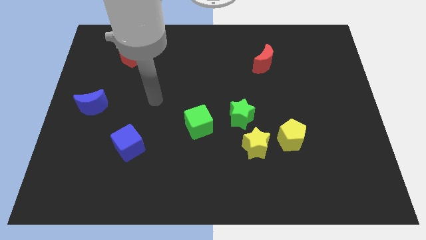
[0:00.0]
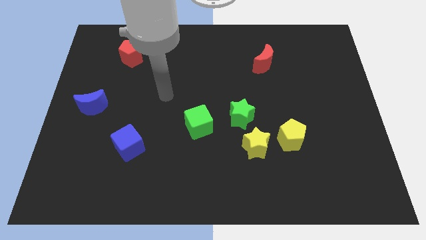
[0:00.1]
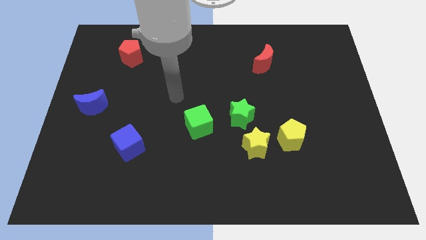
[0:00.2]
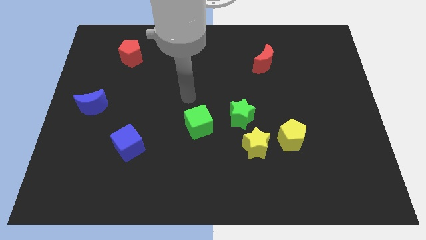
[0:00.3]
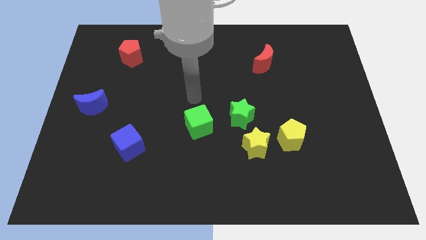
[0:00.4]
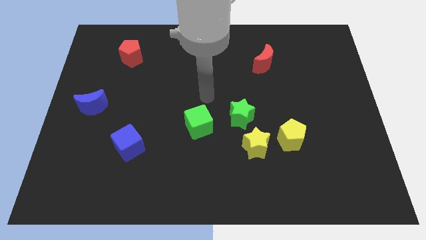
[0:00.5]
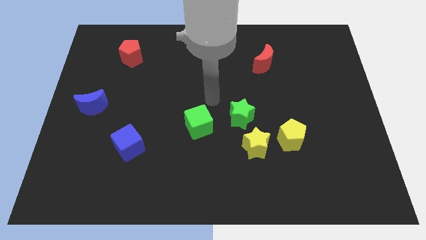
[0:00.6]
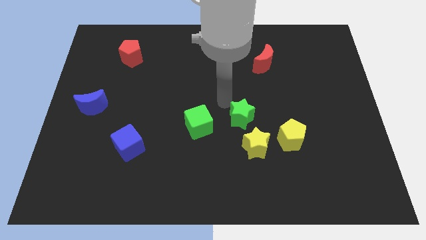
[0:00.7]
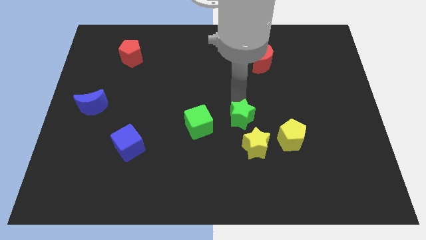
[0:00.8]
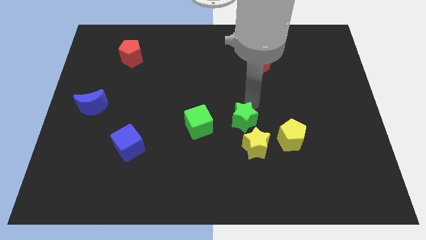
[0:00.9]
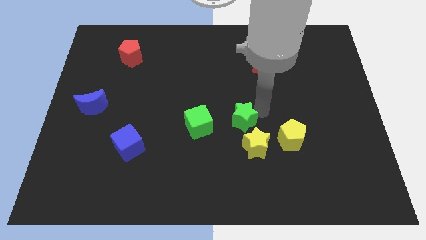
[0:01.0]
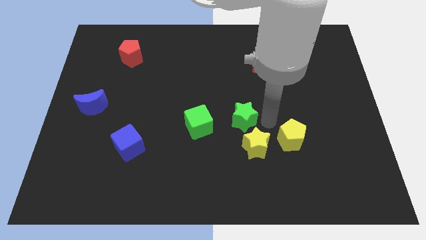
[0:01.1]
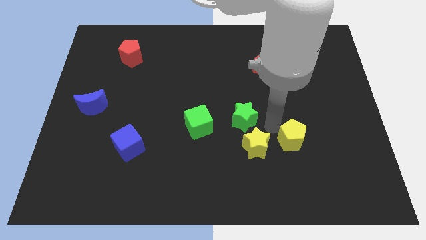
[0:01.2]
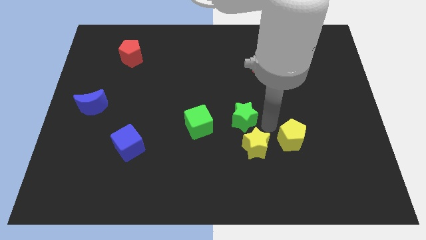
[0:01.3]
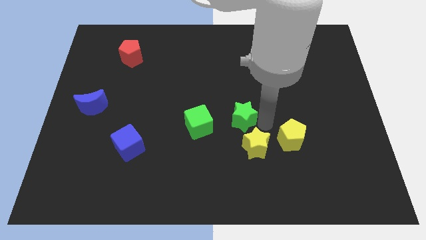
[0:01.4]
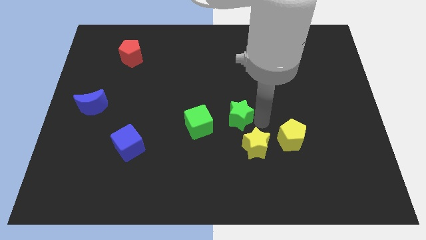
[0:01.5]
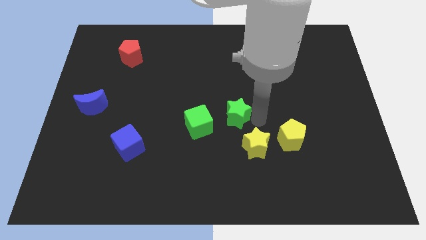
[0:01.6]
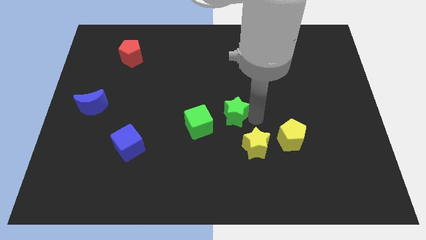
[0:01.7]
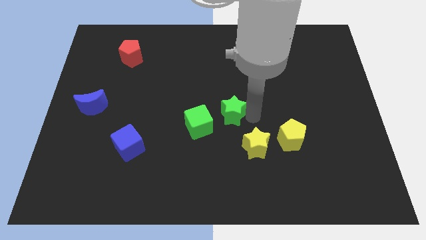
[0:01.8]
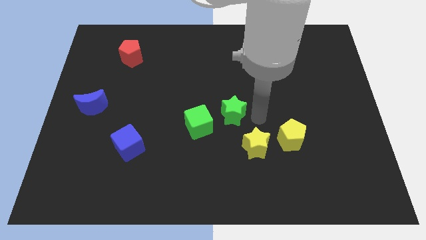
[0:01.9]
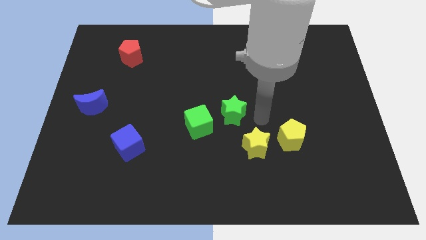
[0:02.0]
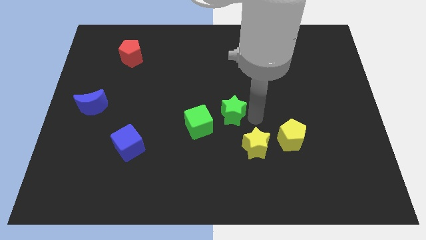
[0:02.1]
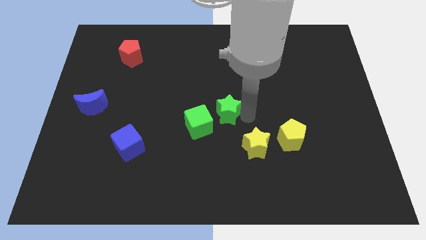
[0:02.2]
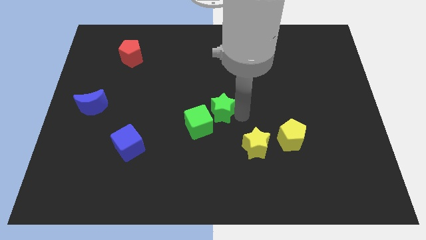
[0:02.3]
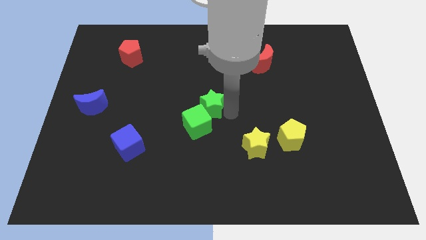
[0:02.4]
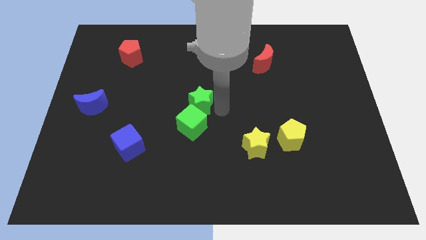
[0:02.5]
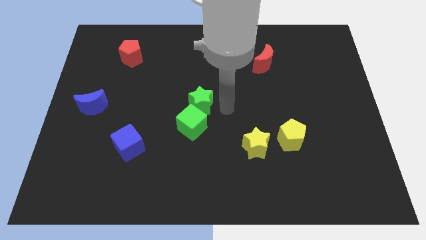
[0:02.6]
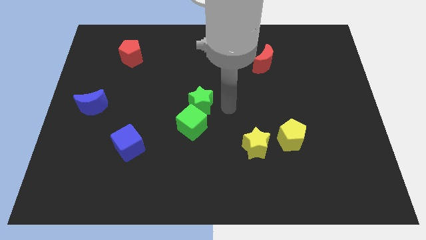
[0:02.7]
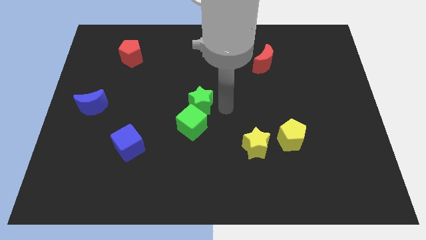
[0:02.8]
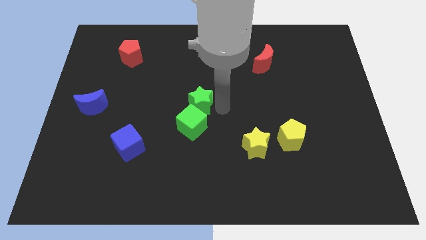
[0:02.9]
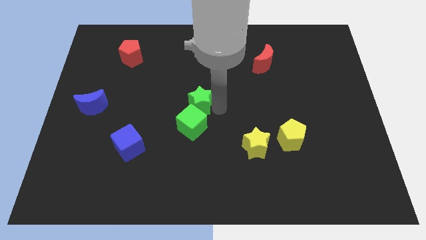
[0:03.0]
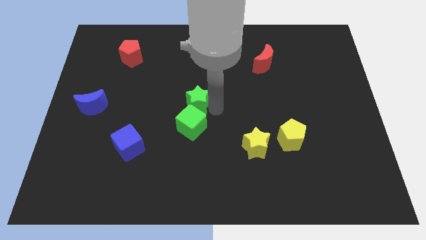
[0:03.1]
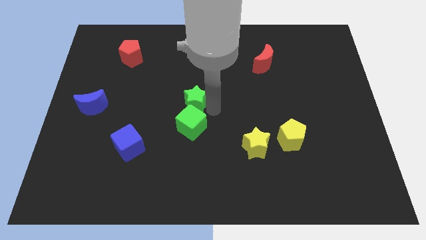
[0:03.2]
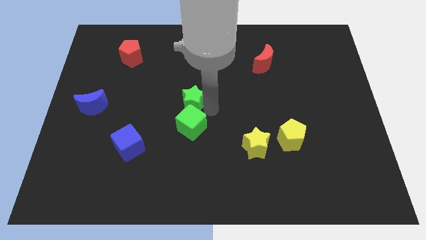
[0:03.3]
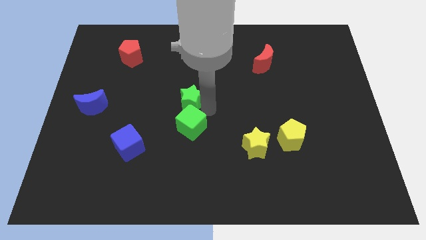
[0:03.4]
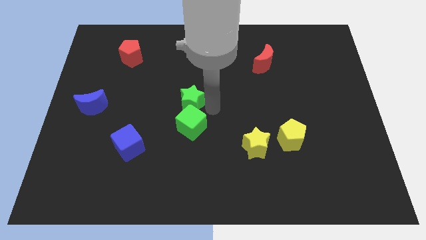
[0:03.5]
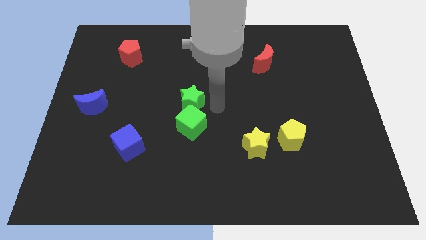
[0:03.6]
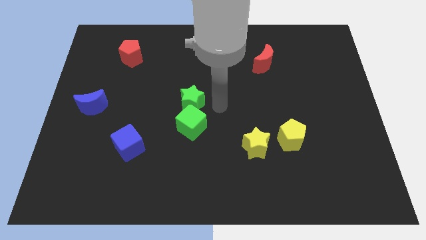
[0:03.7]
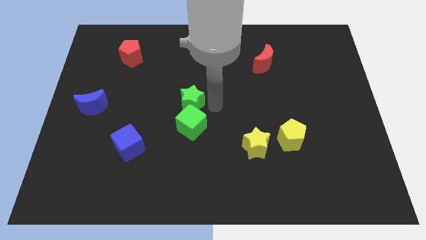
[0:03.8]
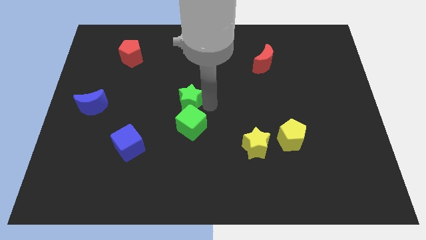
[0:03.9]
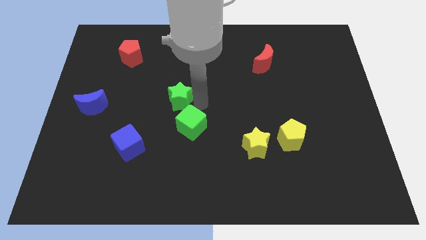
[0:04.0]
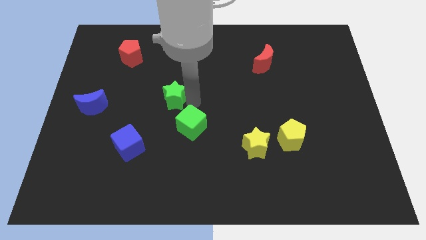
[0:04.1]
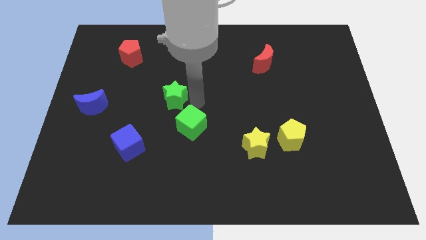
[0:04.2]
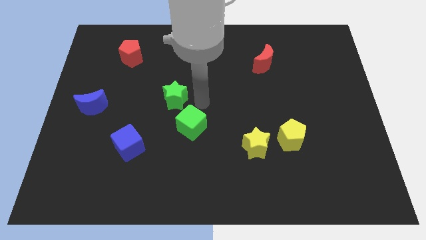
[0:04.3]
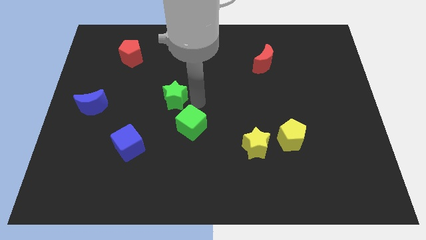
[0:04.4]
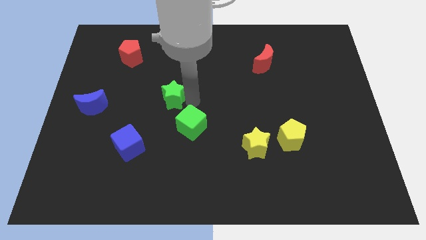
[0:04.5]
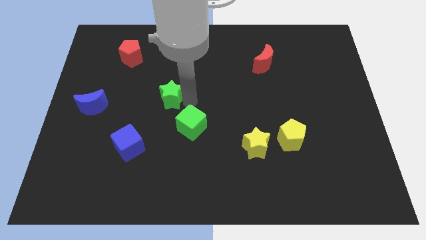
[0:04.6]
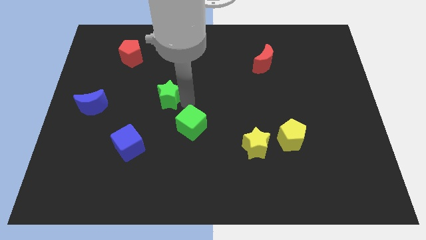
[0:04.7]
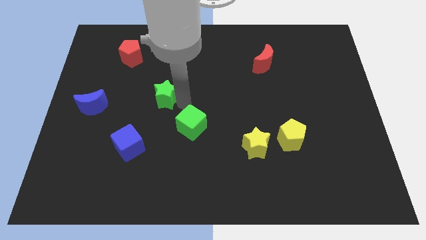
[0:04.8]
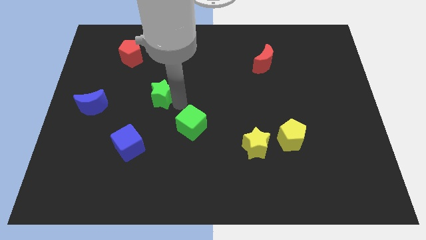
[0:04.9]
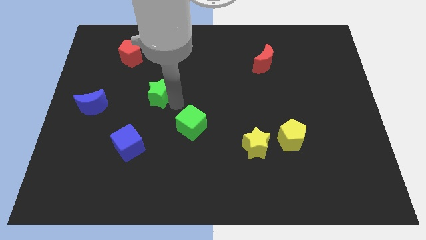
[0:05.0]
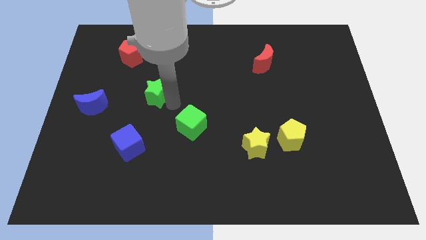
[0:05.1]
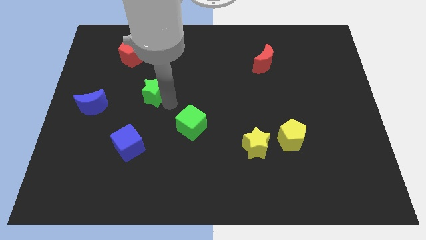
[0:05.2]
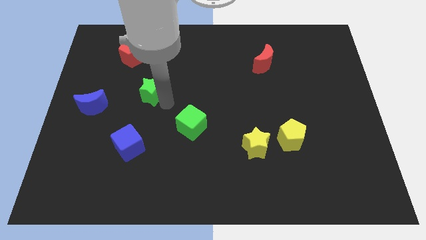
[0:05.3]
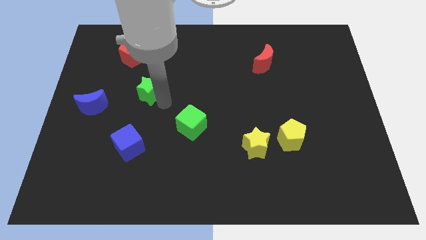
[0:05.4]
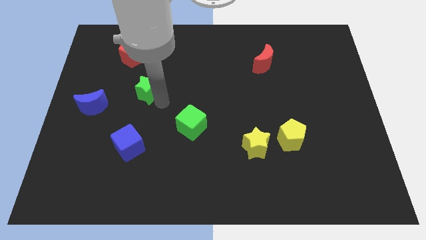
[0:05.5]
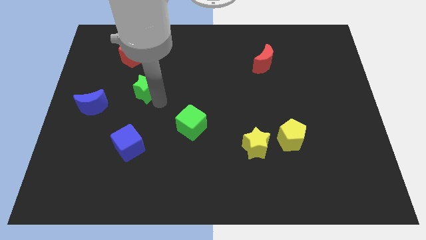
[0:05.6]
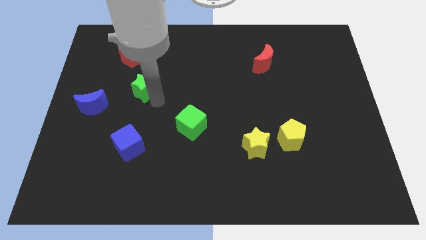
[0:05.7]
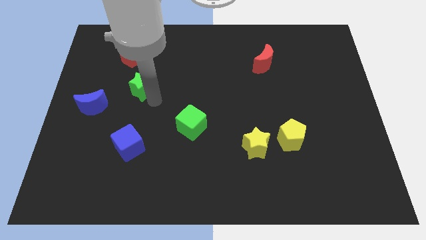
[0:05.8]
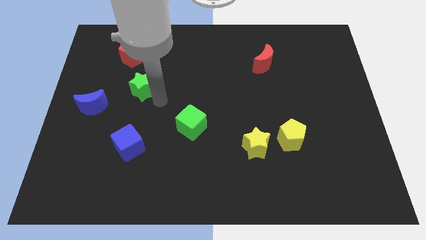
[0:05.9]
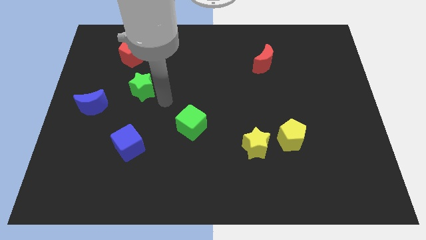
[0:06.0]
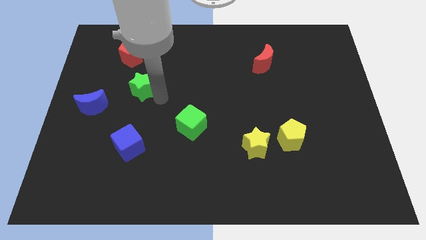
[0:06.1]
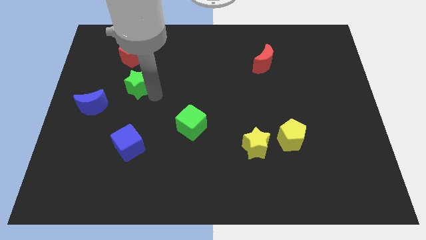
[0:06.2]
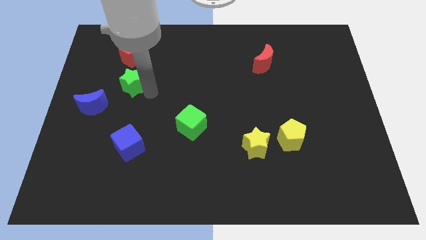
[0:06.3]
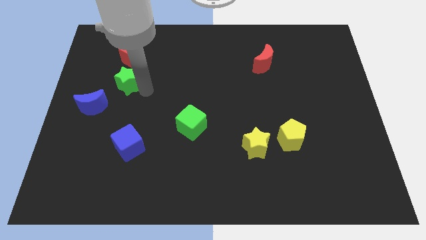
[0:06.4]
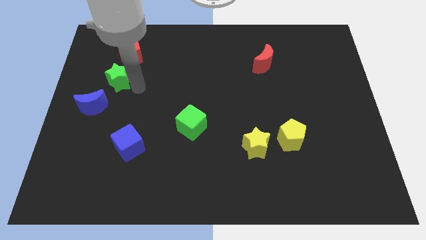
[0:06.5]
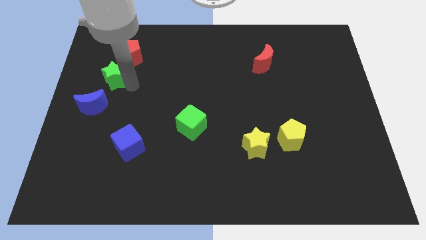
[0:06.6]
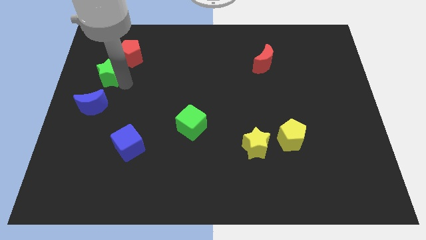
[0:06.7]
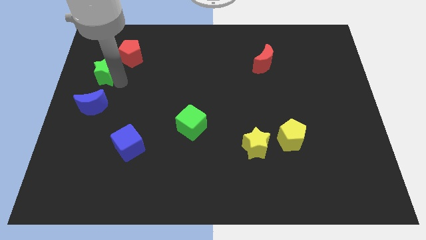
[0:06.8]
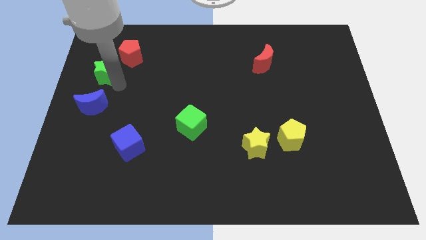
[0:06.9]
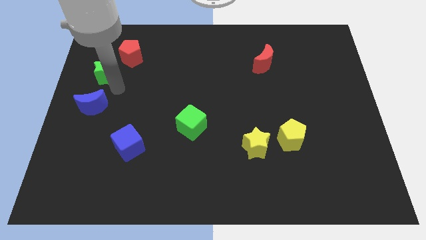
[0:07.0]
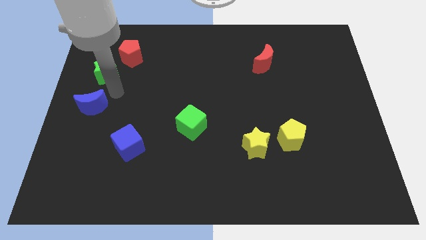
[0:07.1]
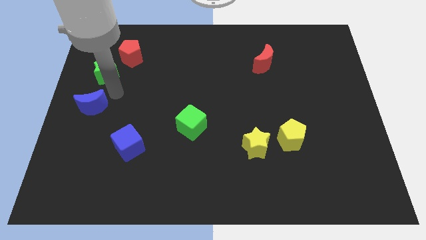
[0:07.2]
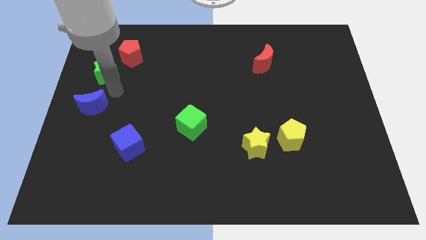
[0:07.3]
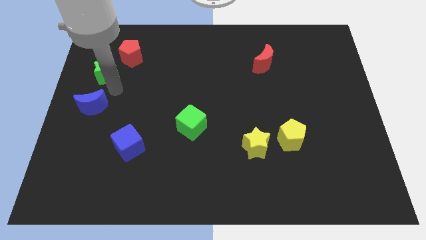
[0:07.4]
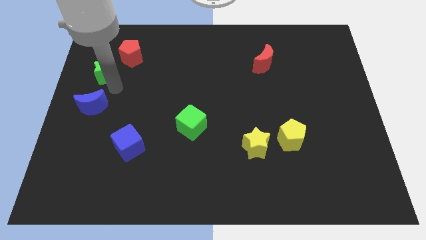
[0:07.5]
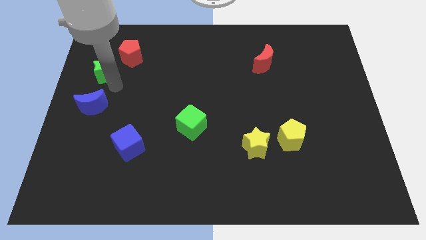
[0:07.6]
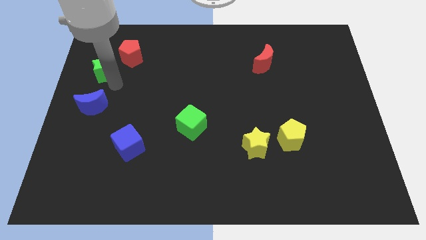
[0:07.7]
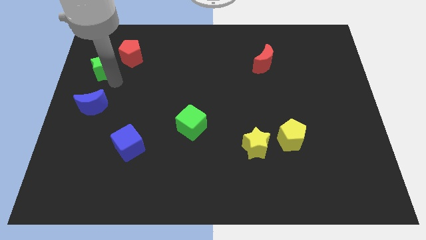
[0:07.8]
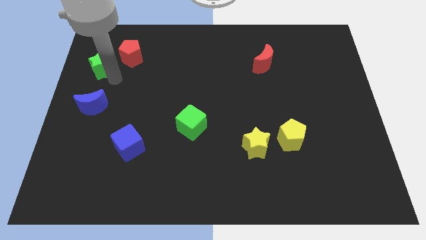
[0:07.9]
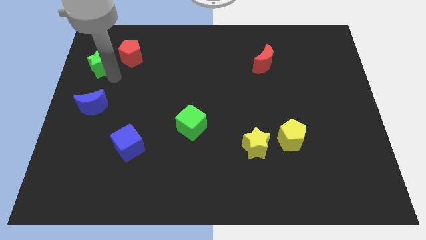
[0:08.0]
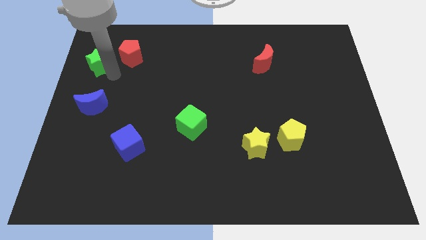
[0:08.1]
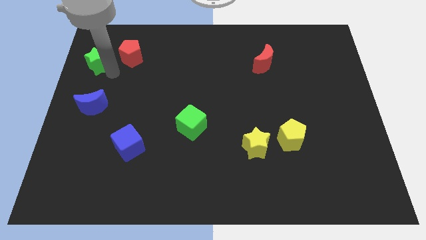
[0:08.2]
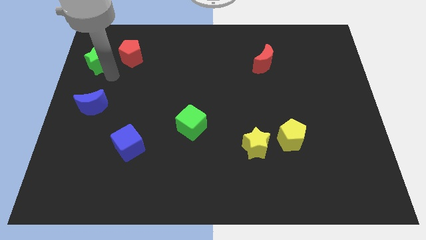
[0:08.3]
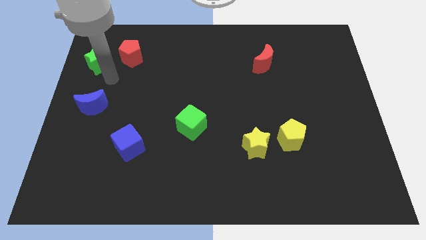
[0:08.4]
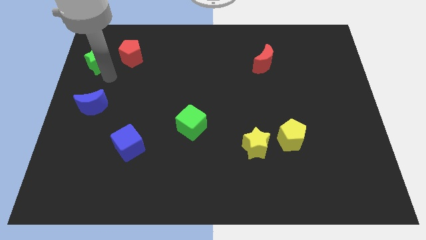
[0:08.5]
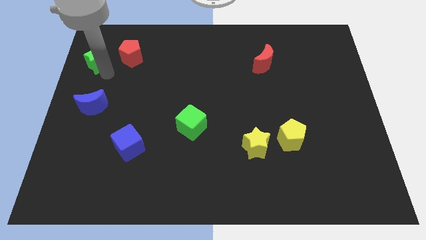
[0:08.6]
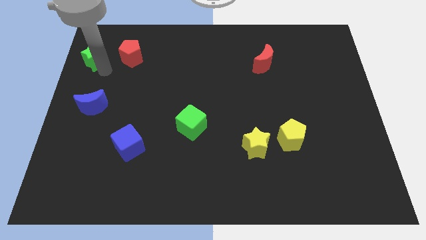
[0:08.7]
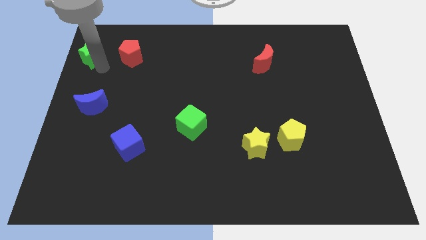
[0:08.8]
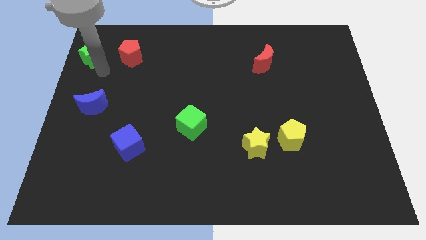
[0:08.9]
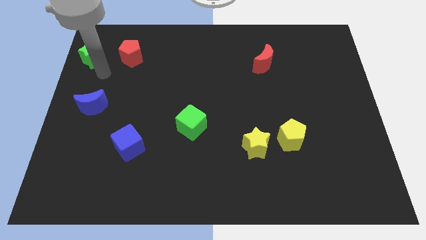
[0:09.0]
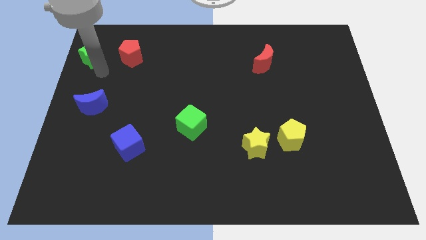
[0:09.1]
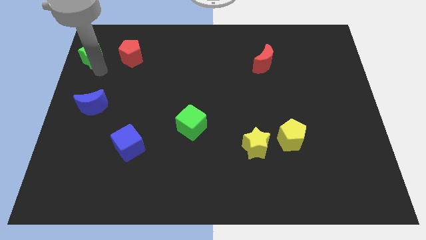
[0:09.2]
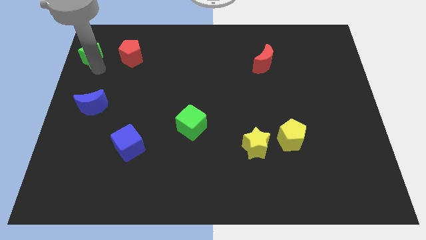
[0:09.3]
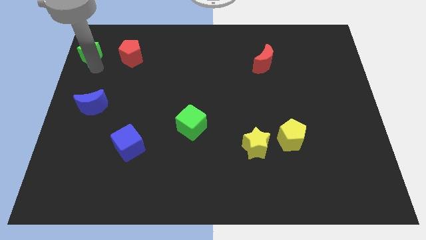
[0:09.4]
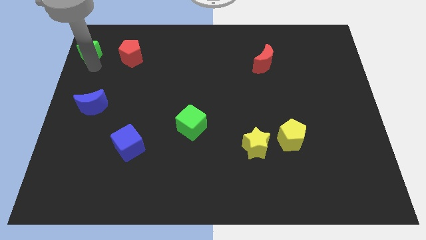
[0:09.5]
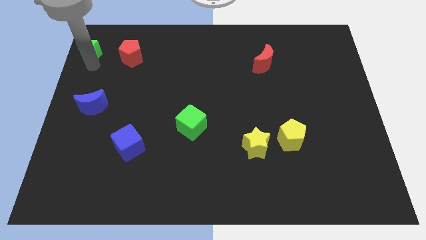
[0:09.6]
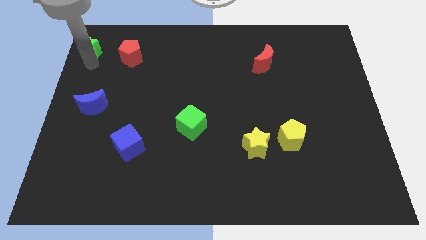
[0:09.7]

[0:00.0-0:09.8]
put the green star to the top left of the board
